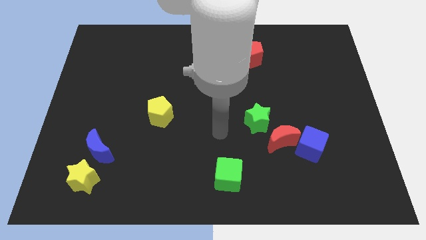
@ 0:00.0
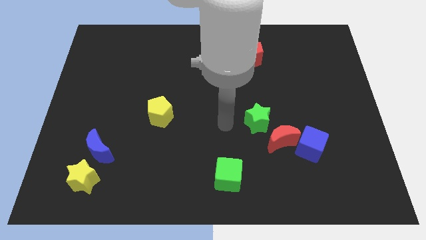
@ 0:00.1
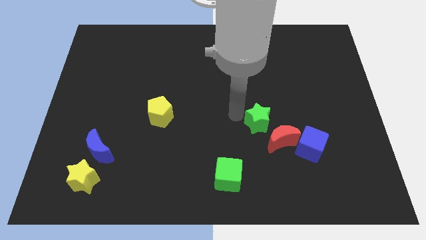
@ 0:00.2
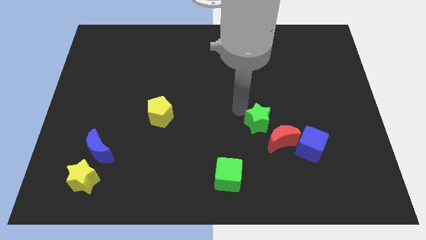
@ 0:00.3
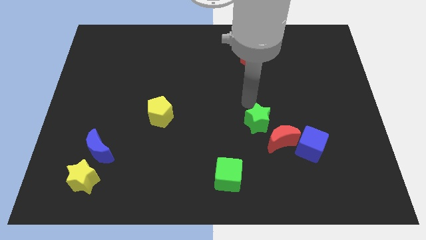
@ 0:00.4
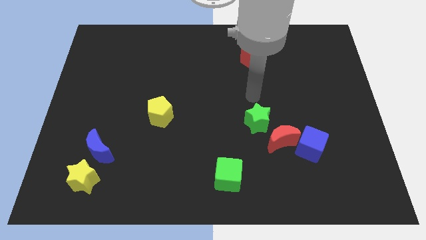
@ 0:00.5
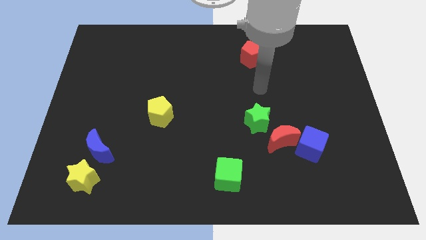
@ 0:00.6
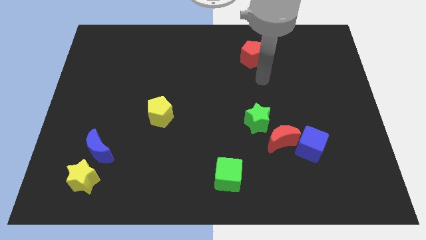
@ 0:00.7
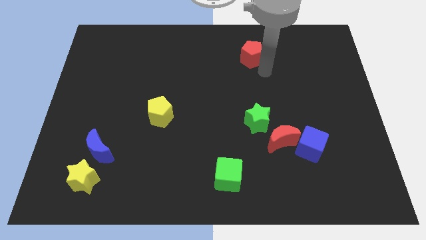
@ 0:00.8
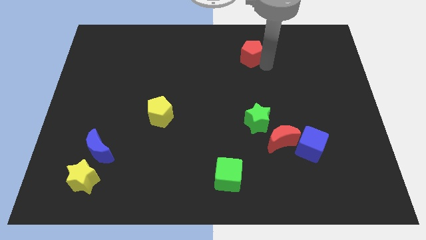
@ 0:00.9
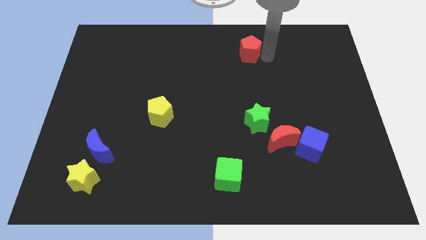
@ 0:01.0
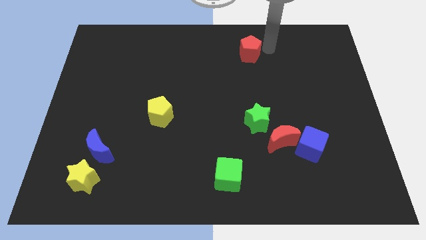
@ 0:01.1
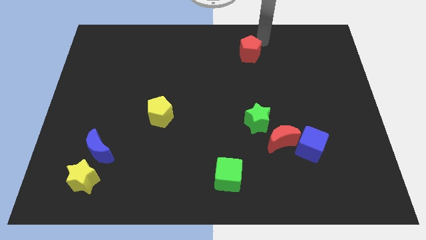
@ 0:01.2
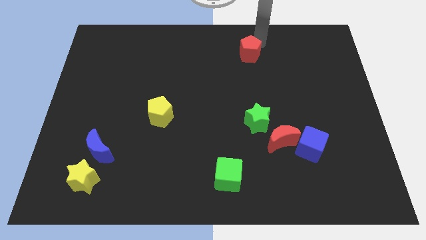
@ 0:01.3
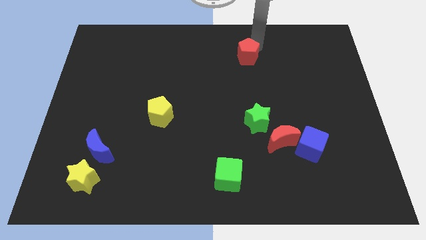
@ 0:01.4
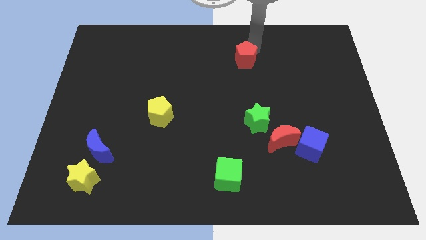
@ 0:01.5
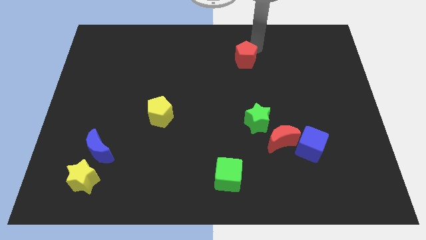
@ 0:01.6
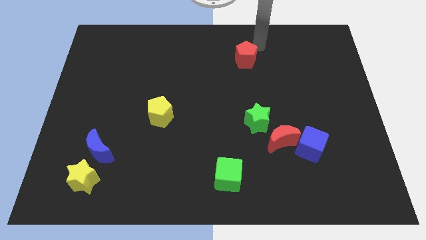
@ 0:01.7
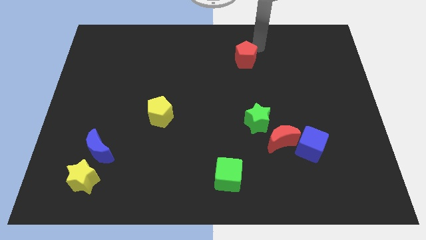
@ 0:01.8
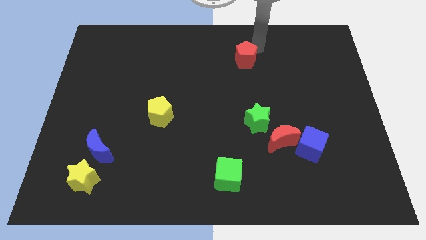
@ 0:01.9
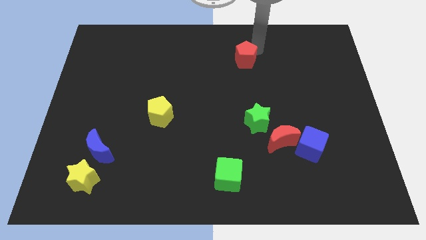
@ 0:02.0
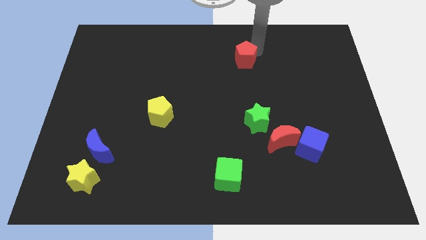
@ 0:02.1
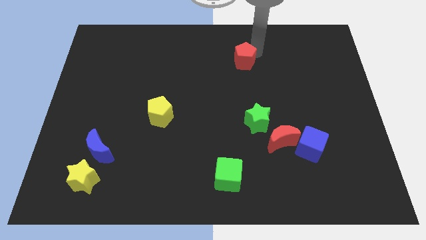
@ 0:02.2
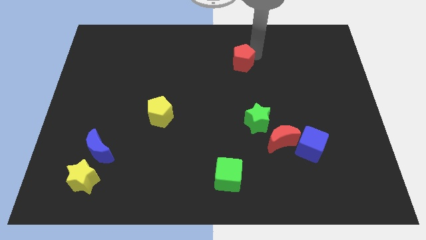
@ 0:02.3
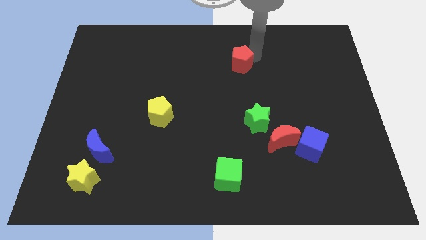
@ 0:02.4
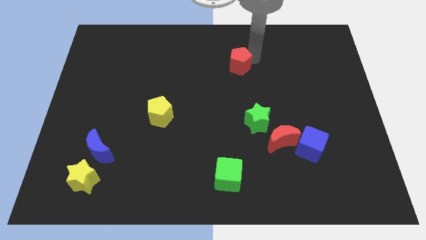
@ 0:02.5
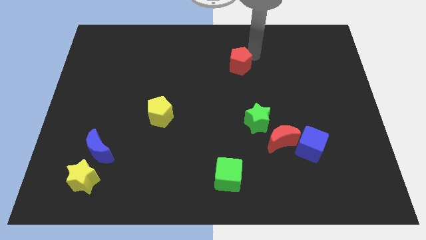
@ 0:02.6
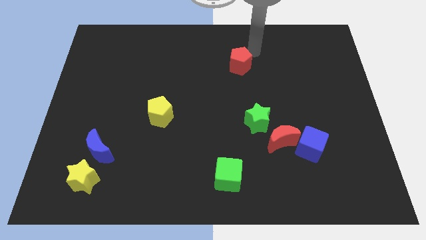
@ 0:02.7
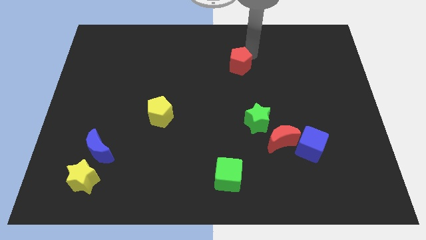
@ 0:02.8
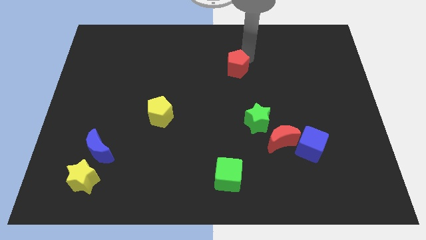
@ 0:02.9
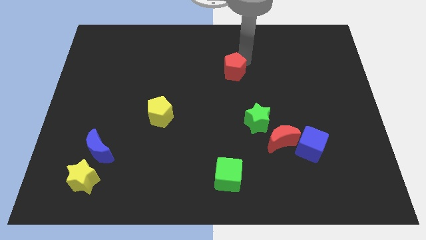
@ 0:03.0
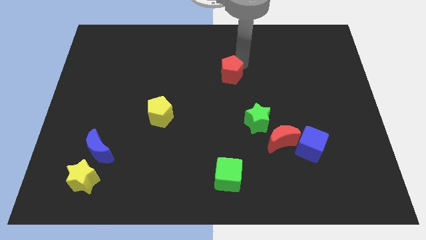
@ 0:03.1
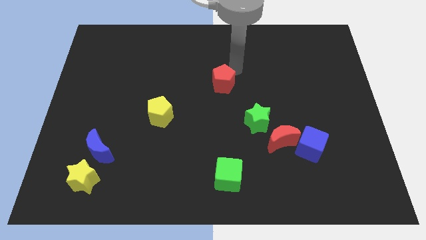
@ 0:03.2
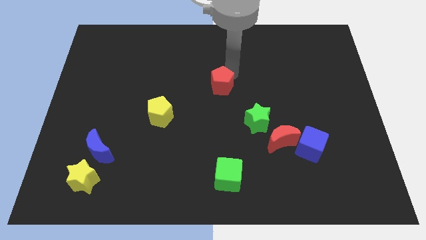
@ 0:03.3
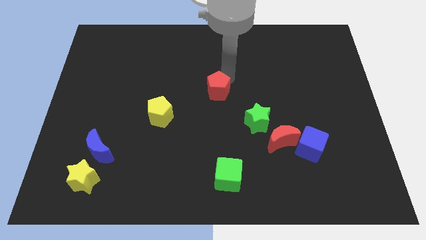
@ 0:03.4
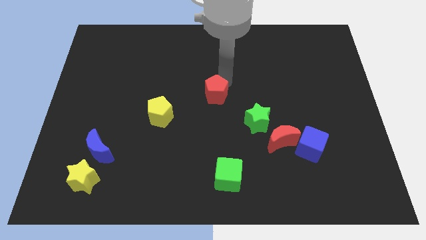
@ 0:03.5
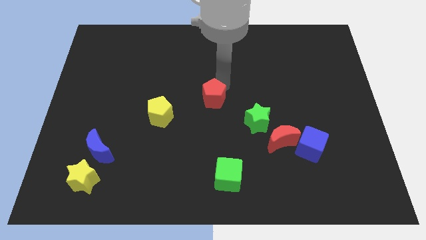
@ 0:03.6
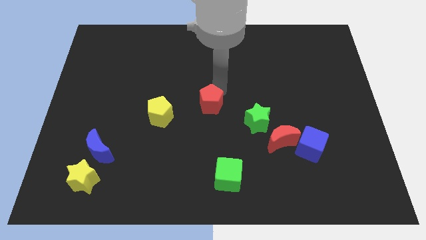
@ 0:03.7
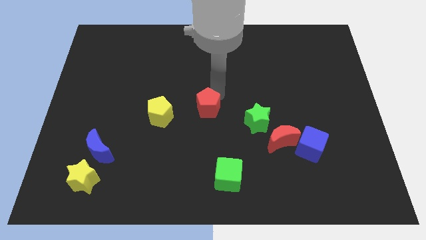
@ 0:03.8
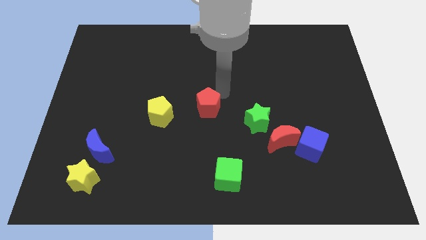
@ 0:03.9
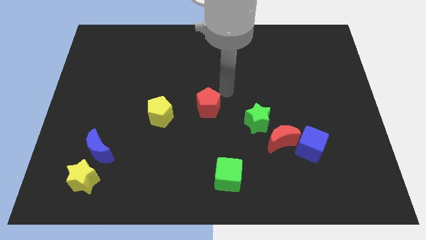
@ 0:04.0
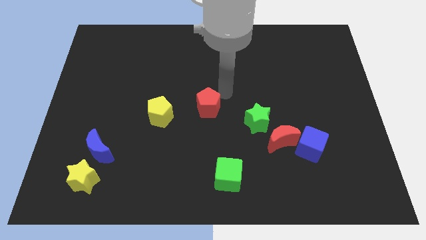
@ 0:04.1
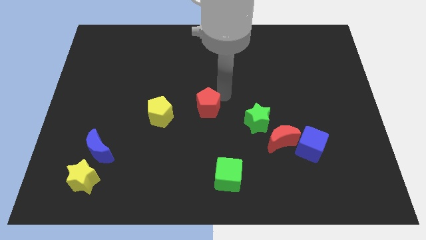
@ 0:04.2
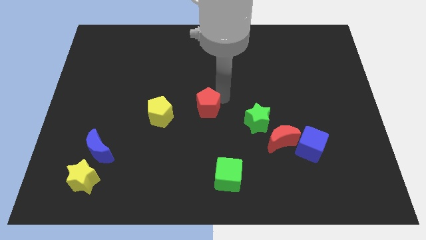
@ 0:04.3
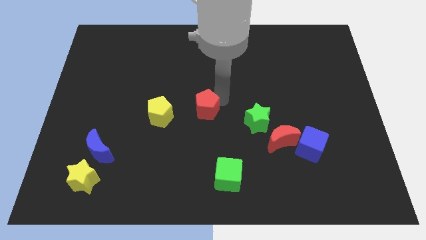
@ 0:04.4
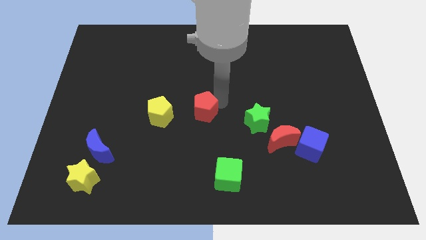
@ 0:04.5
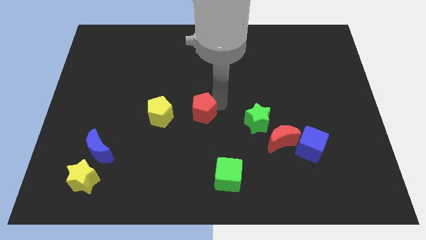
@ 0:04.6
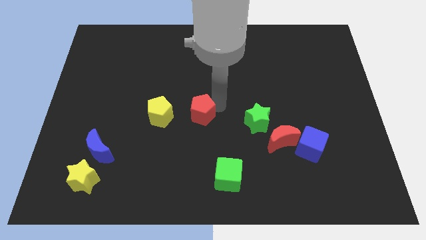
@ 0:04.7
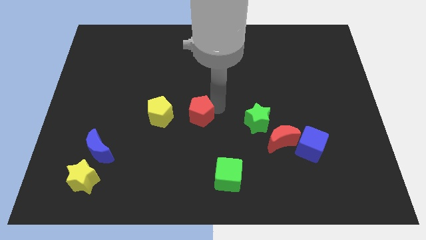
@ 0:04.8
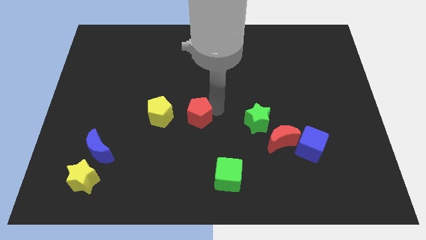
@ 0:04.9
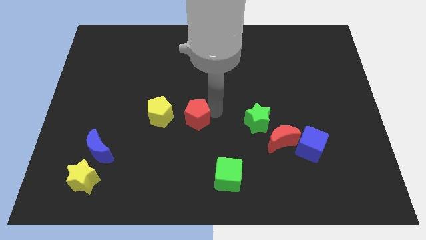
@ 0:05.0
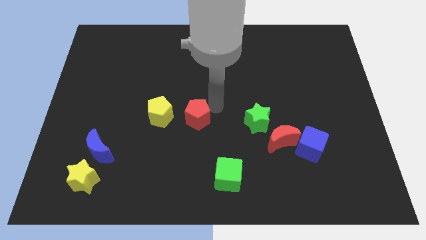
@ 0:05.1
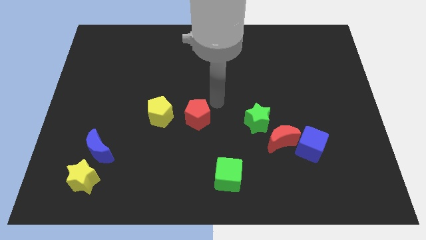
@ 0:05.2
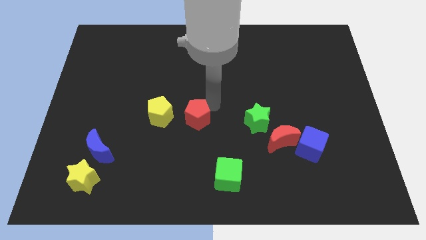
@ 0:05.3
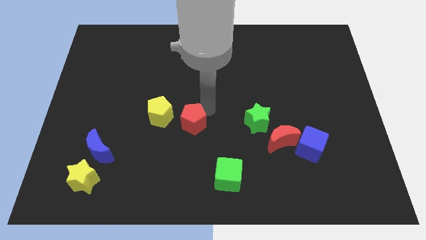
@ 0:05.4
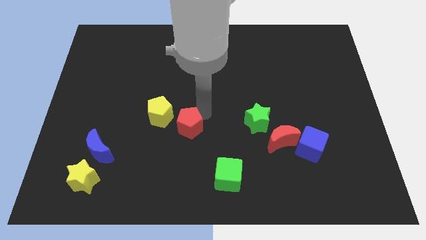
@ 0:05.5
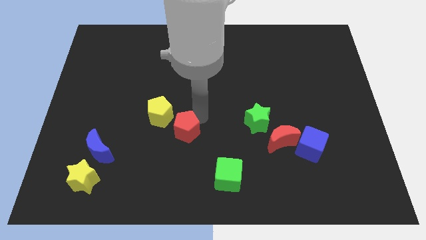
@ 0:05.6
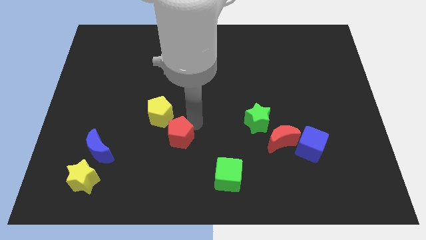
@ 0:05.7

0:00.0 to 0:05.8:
move the red pentagon to the bottom of the yellow pentagon

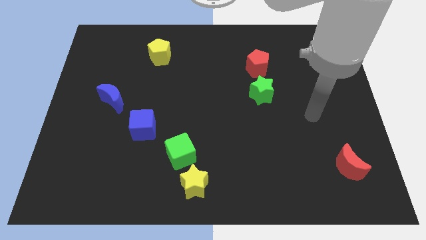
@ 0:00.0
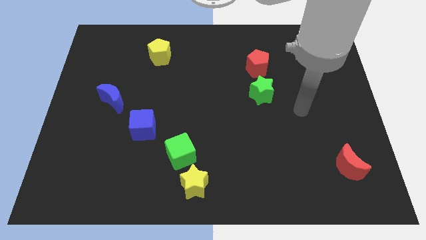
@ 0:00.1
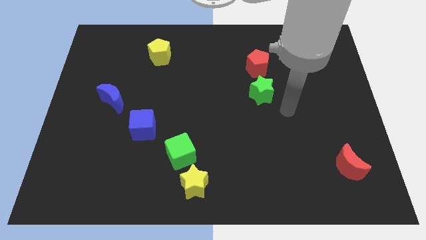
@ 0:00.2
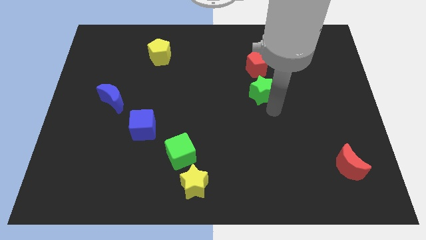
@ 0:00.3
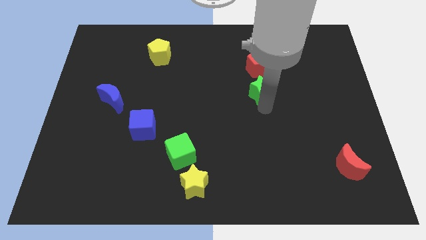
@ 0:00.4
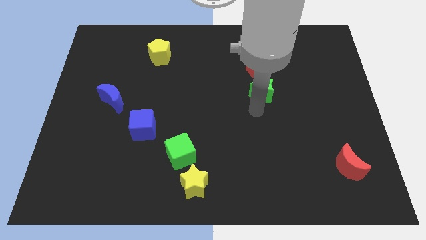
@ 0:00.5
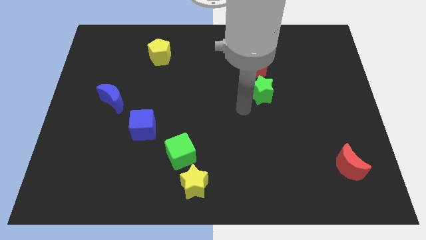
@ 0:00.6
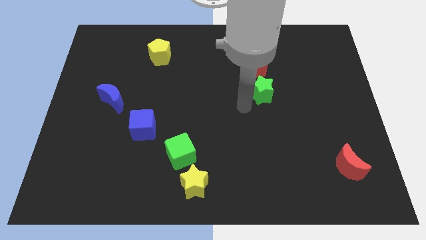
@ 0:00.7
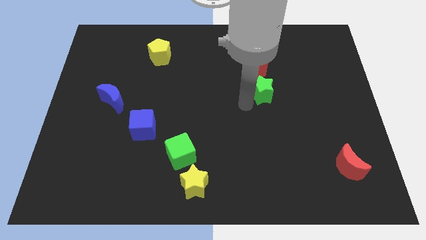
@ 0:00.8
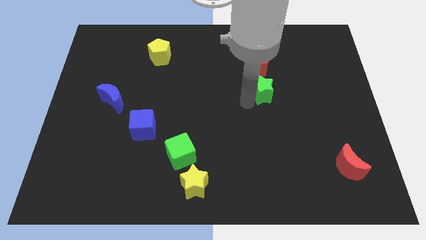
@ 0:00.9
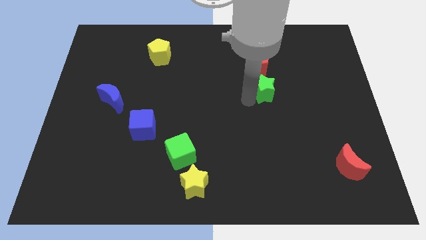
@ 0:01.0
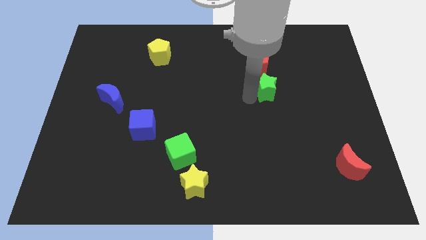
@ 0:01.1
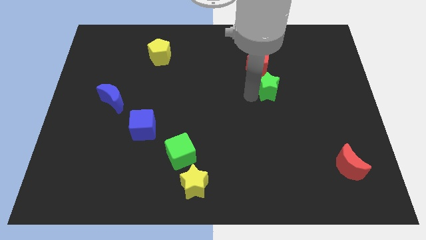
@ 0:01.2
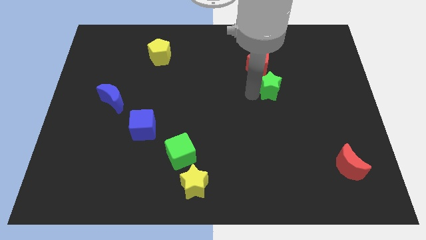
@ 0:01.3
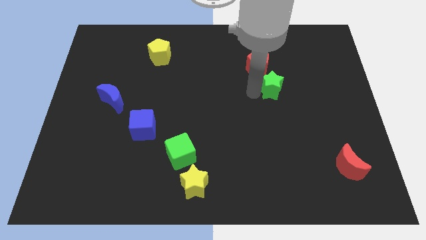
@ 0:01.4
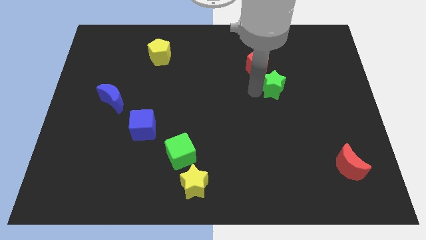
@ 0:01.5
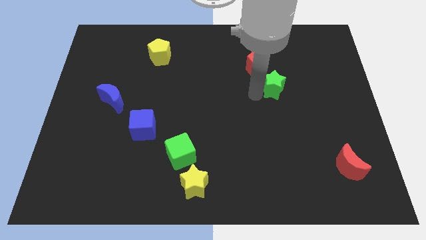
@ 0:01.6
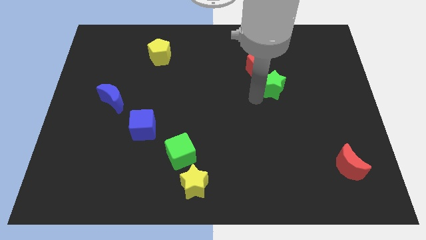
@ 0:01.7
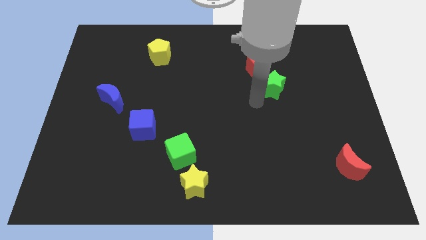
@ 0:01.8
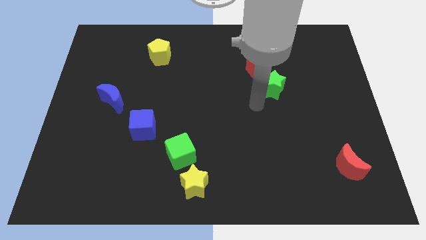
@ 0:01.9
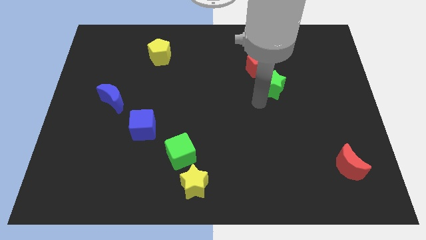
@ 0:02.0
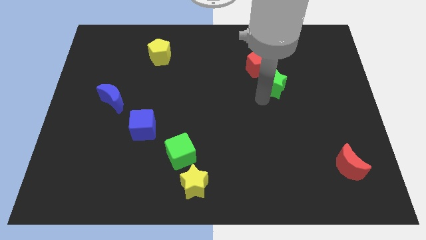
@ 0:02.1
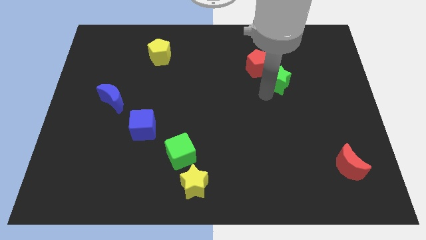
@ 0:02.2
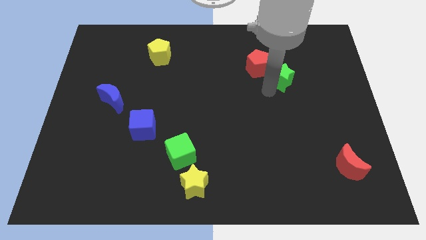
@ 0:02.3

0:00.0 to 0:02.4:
move the green star to the right side of the red pentagon

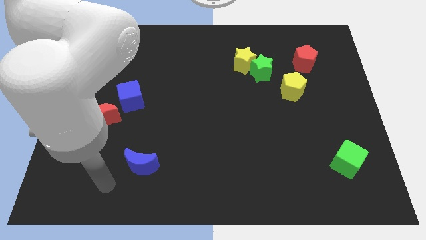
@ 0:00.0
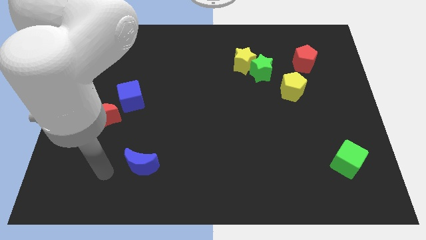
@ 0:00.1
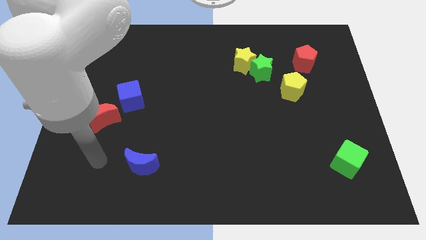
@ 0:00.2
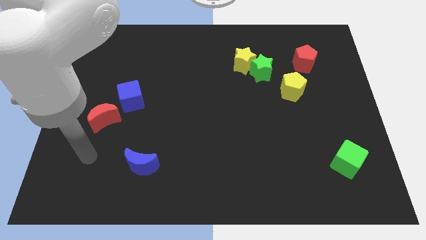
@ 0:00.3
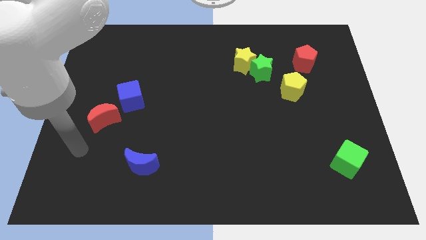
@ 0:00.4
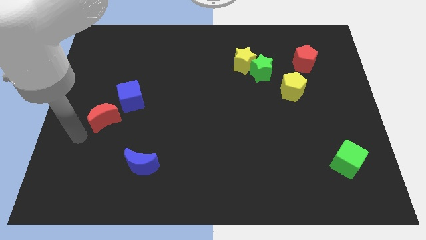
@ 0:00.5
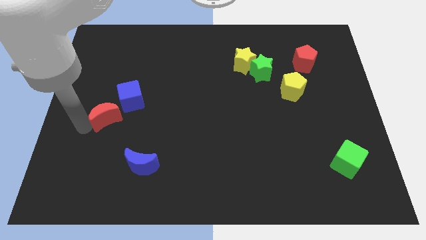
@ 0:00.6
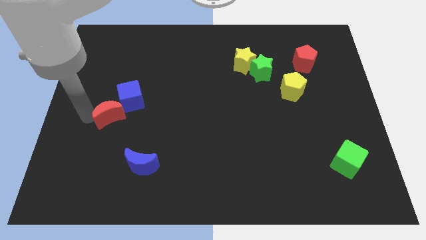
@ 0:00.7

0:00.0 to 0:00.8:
move the blue cube just right of the red moon
